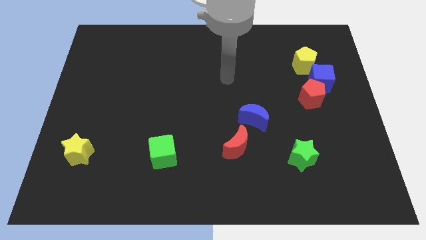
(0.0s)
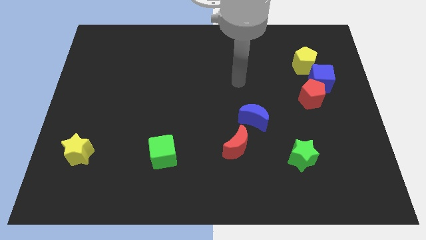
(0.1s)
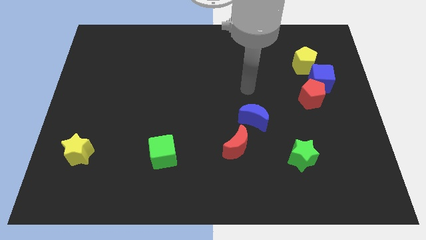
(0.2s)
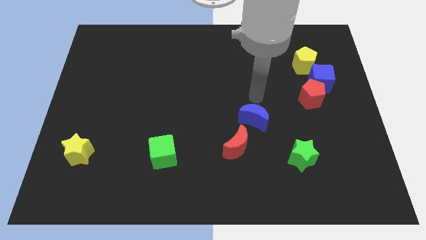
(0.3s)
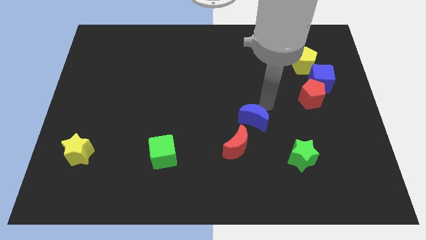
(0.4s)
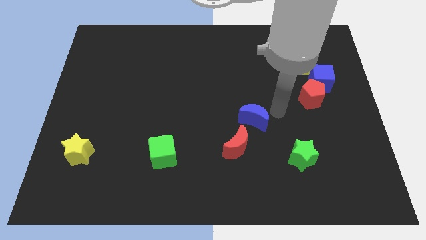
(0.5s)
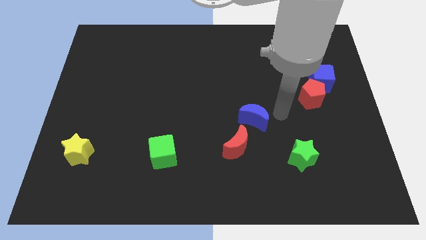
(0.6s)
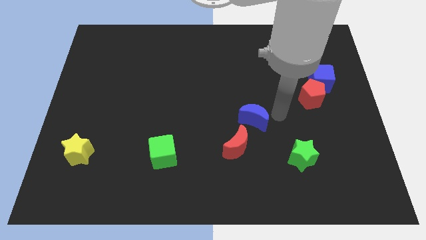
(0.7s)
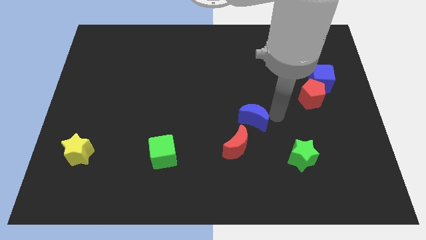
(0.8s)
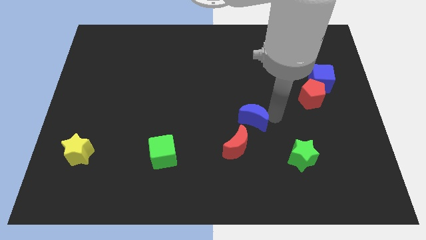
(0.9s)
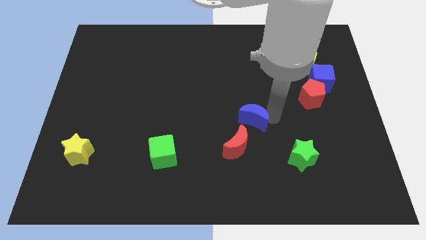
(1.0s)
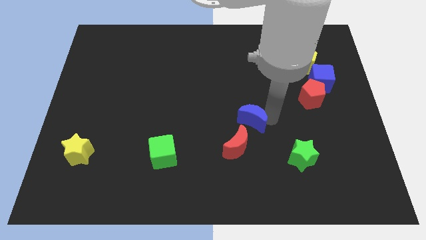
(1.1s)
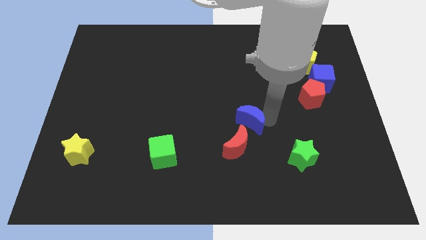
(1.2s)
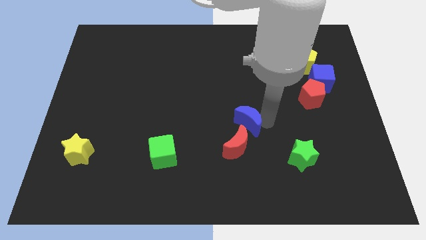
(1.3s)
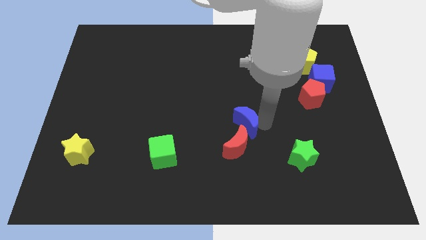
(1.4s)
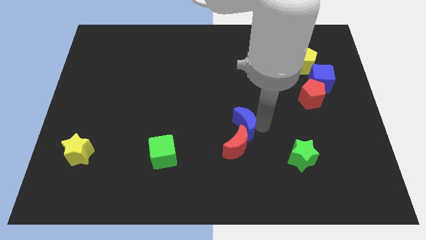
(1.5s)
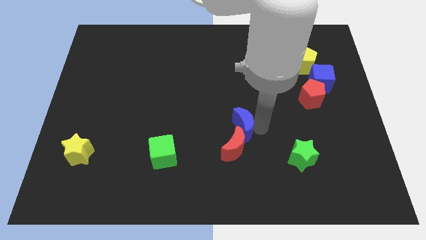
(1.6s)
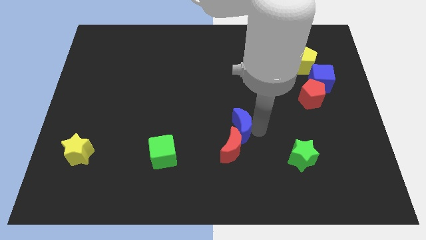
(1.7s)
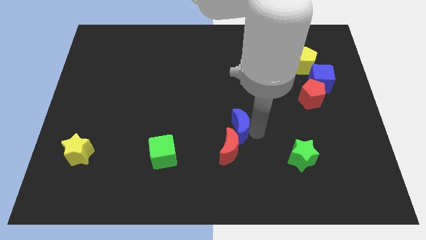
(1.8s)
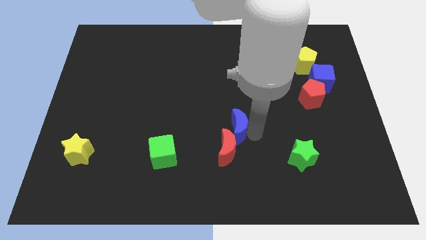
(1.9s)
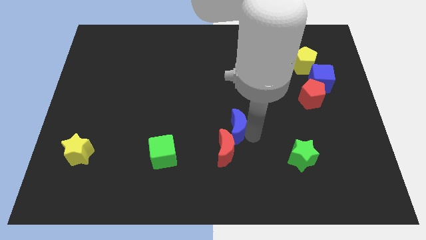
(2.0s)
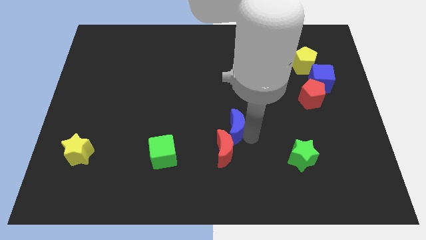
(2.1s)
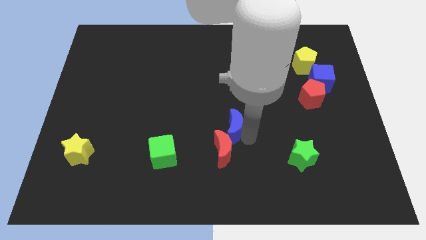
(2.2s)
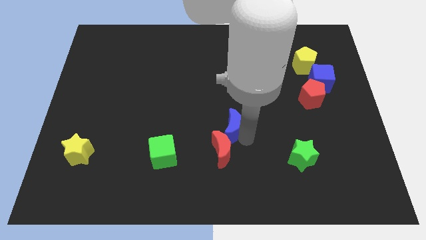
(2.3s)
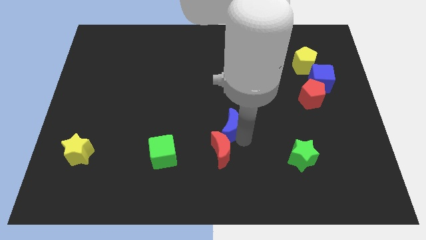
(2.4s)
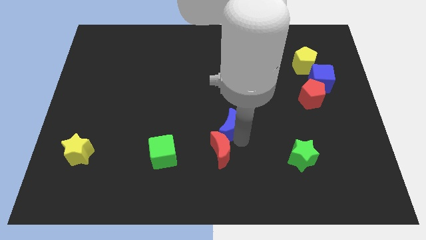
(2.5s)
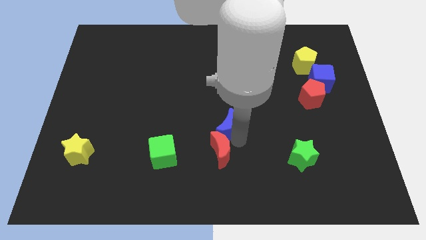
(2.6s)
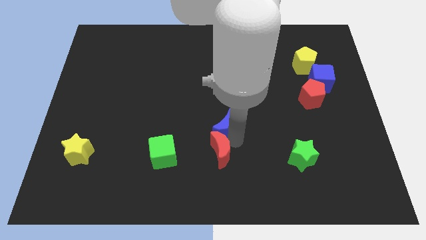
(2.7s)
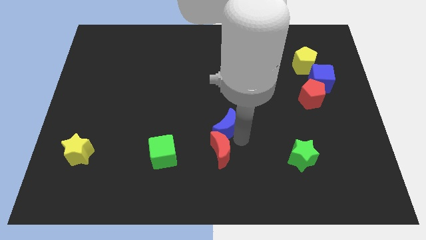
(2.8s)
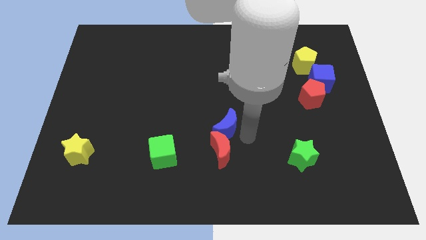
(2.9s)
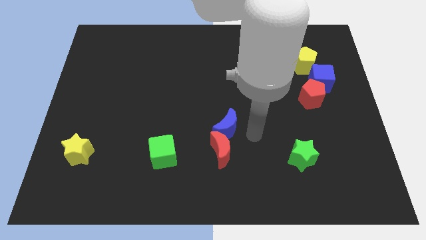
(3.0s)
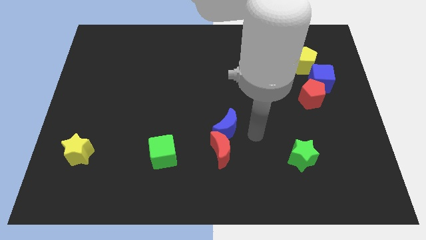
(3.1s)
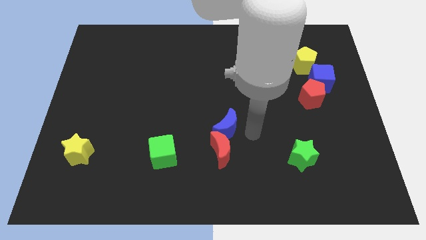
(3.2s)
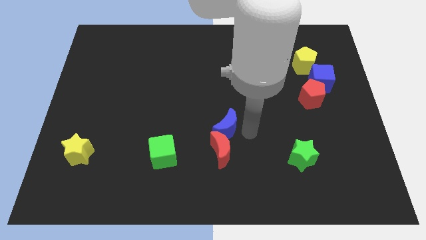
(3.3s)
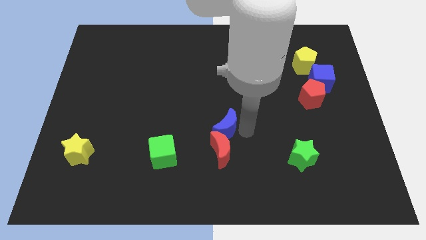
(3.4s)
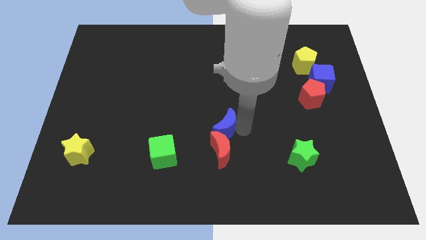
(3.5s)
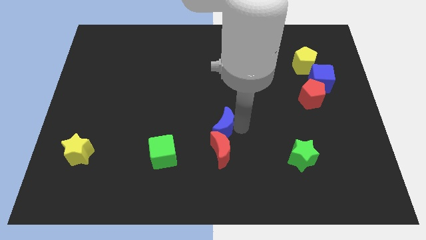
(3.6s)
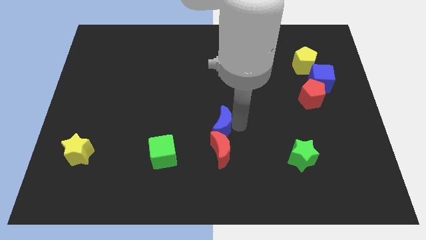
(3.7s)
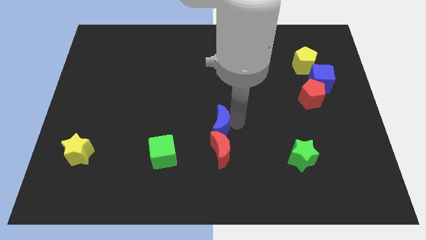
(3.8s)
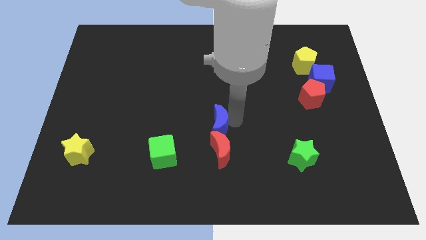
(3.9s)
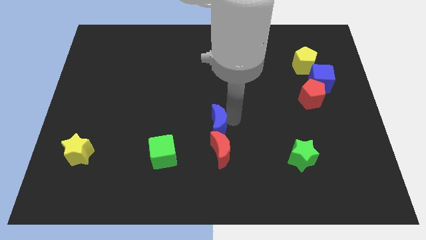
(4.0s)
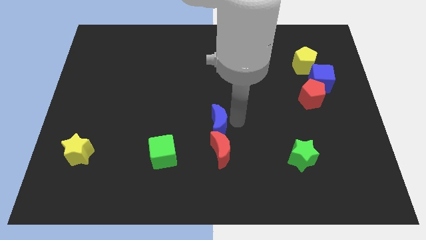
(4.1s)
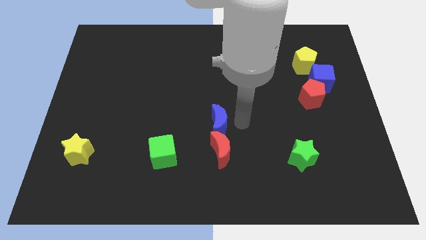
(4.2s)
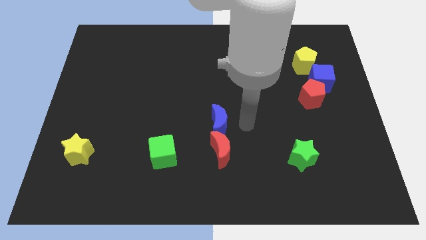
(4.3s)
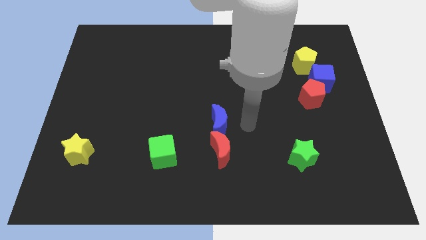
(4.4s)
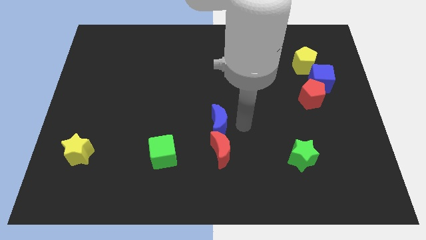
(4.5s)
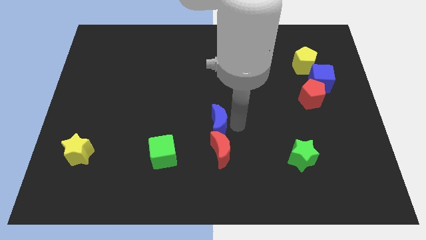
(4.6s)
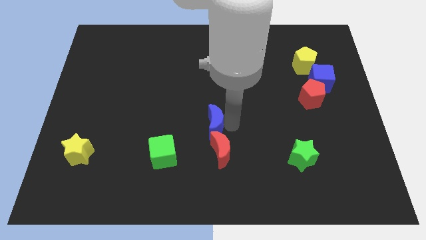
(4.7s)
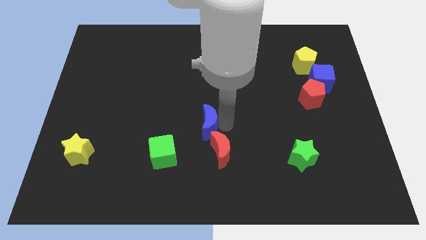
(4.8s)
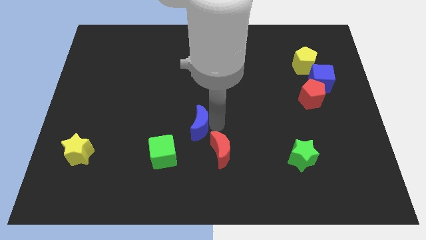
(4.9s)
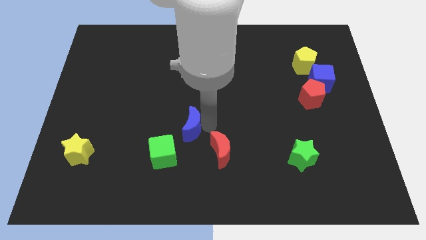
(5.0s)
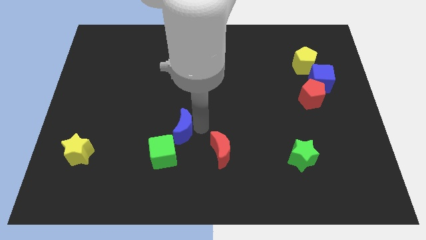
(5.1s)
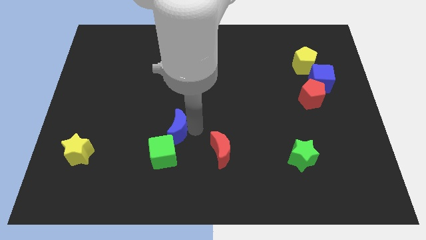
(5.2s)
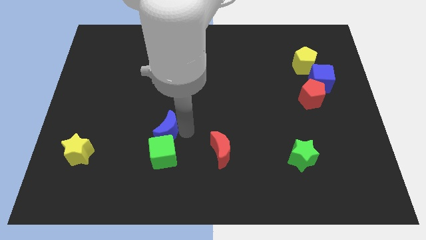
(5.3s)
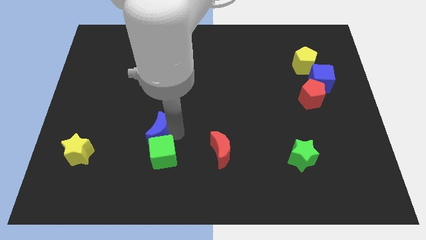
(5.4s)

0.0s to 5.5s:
move the blue moon left

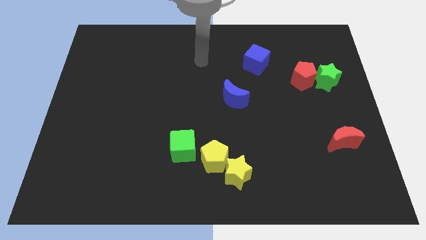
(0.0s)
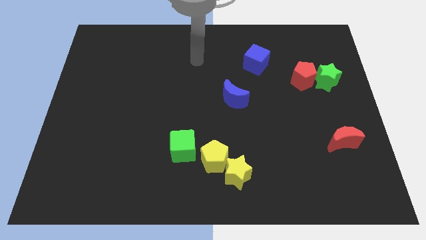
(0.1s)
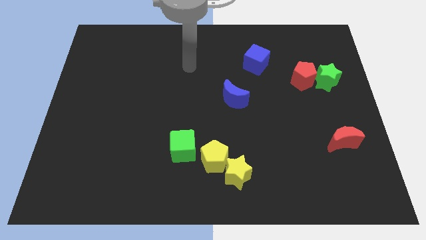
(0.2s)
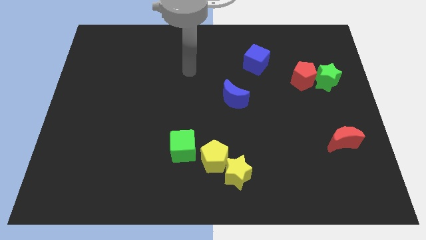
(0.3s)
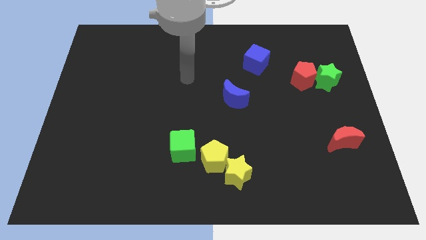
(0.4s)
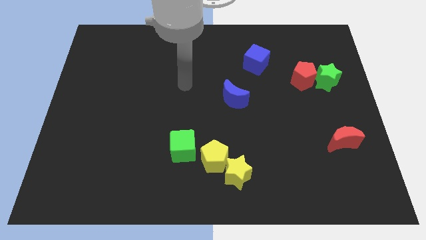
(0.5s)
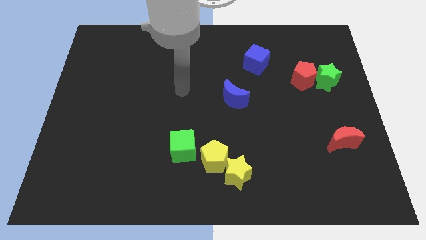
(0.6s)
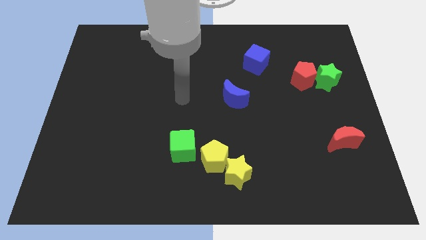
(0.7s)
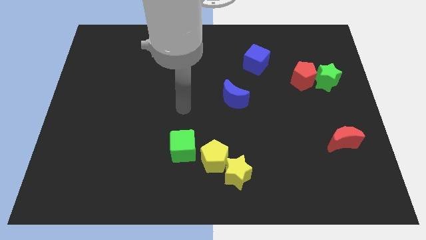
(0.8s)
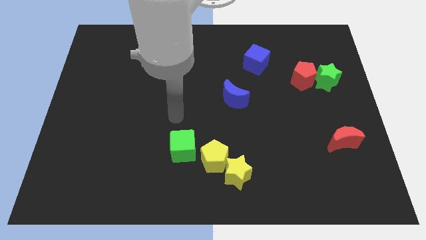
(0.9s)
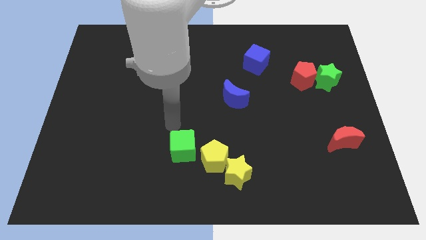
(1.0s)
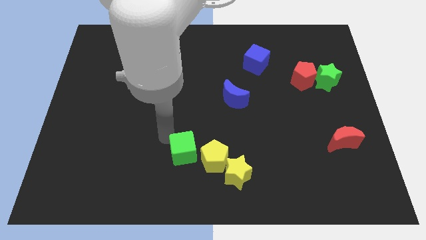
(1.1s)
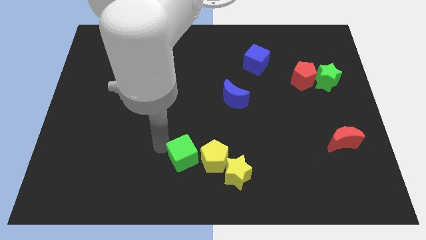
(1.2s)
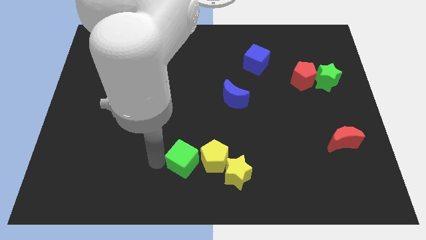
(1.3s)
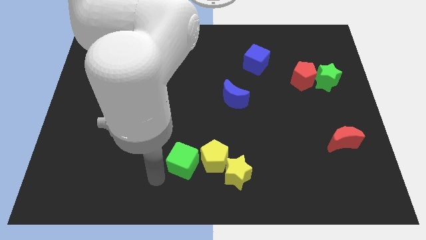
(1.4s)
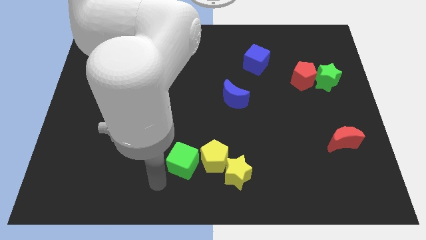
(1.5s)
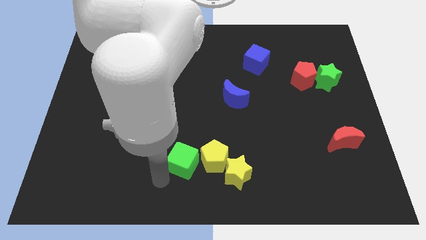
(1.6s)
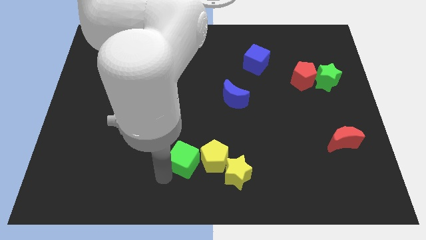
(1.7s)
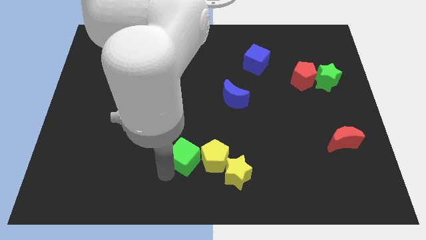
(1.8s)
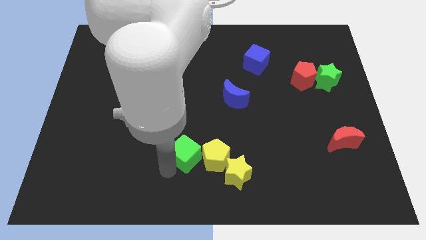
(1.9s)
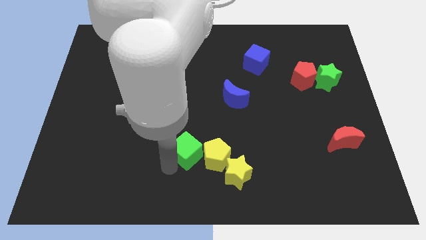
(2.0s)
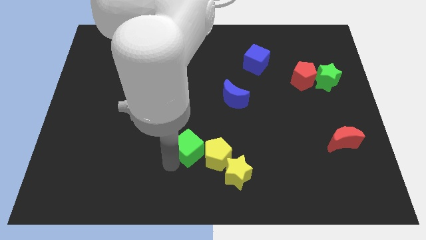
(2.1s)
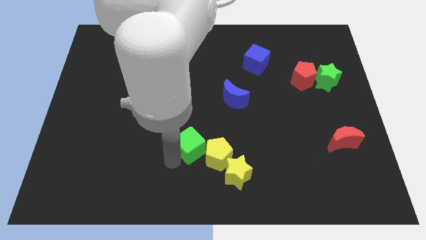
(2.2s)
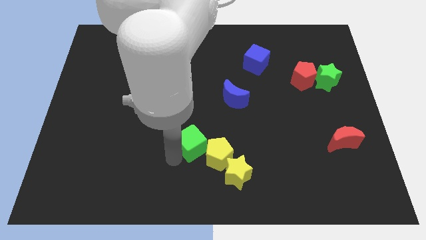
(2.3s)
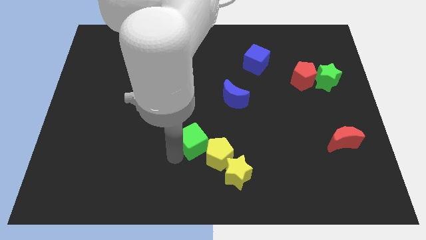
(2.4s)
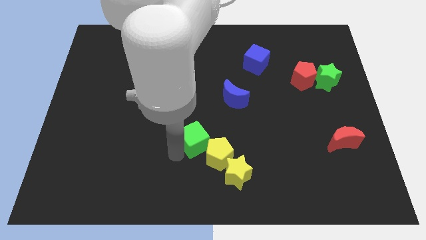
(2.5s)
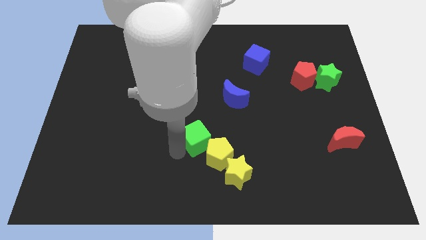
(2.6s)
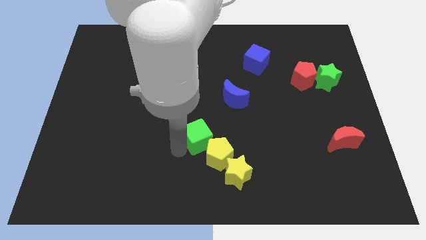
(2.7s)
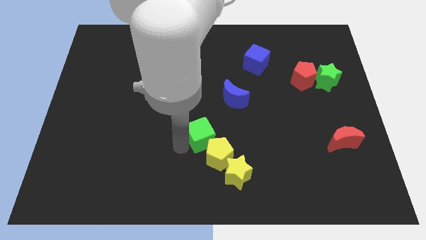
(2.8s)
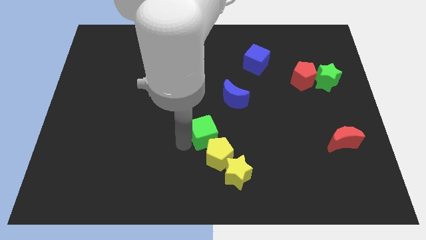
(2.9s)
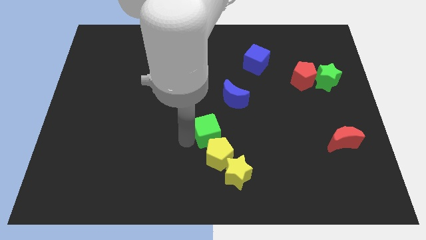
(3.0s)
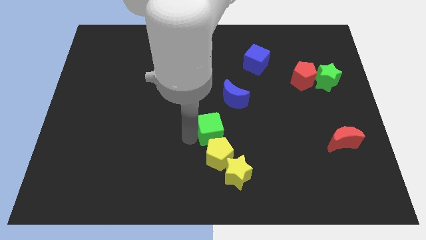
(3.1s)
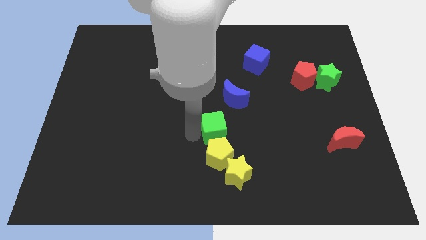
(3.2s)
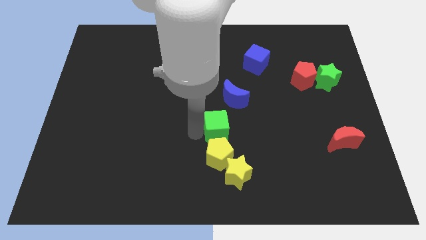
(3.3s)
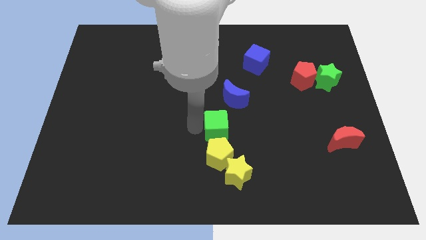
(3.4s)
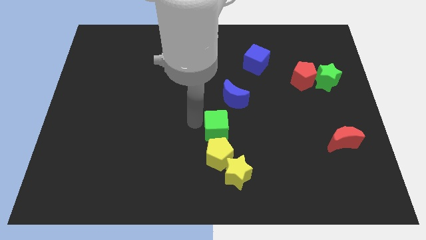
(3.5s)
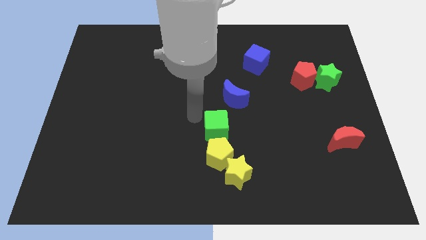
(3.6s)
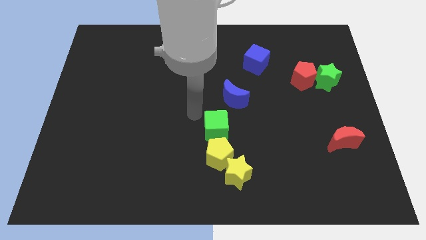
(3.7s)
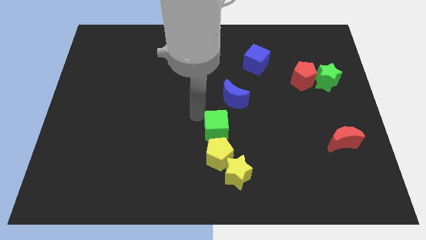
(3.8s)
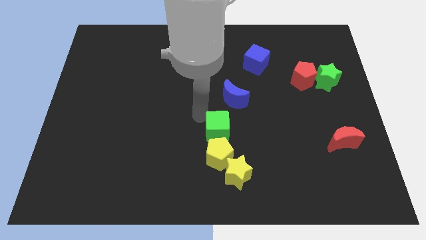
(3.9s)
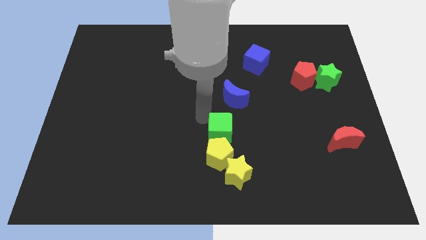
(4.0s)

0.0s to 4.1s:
slide the green cube to the right somewhat
